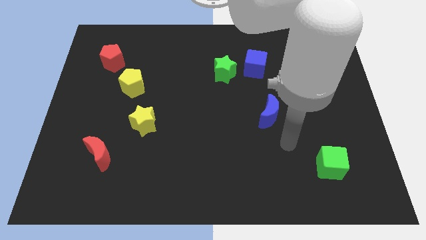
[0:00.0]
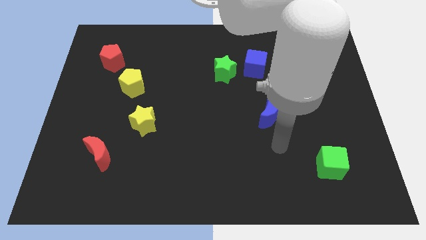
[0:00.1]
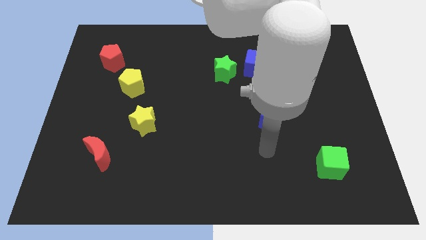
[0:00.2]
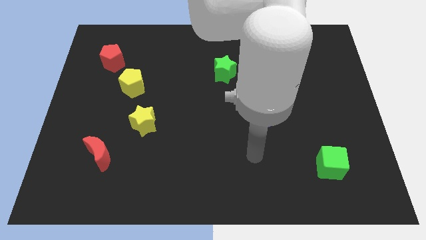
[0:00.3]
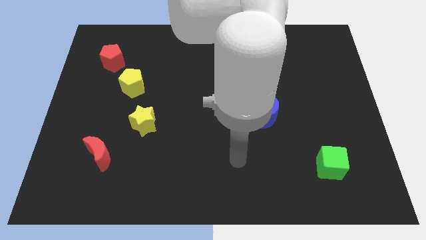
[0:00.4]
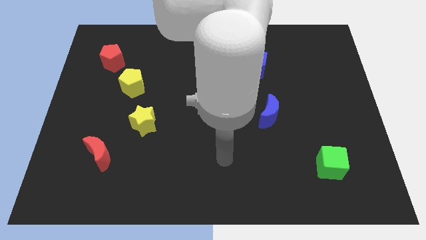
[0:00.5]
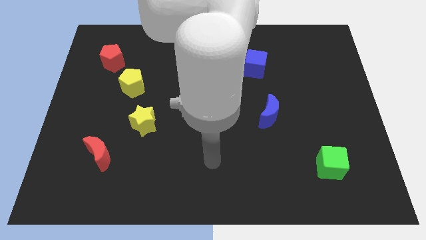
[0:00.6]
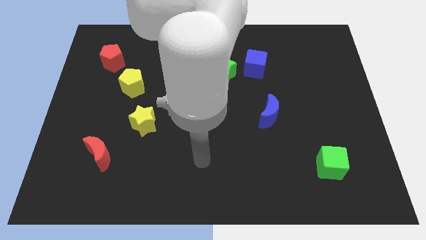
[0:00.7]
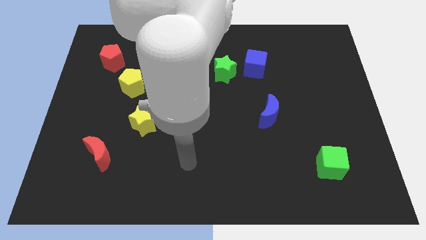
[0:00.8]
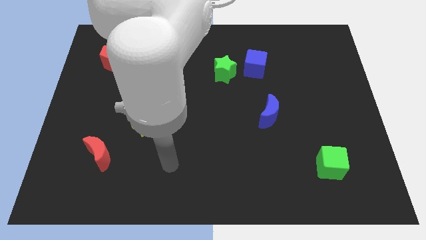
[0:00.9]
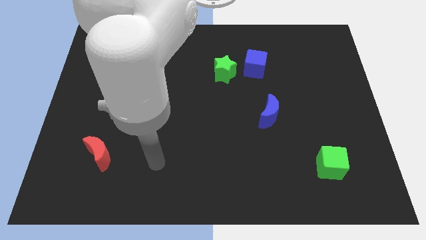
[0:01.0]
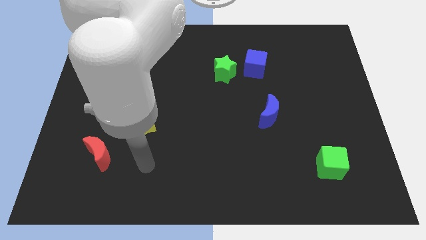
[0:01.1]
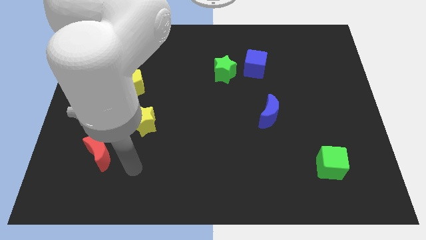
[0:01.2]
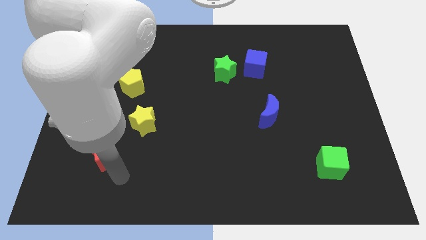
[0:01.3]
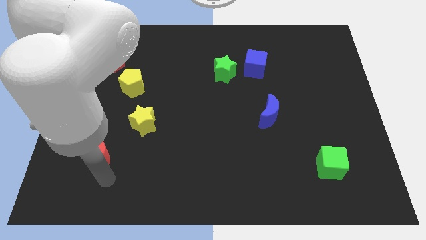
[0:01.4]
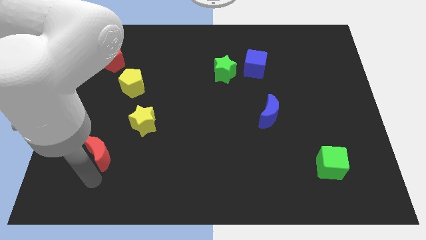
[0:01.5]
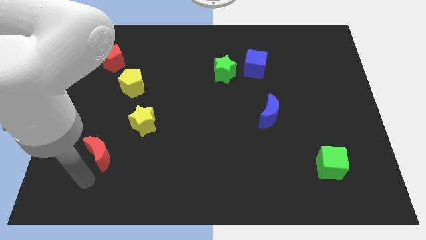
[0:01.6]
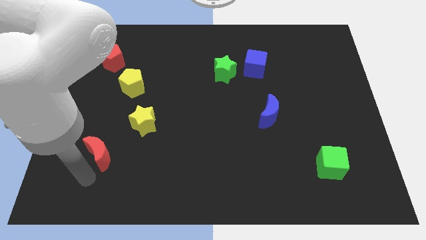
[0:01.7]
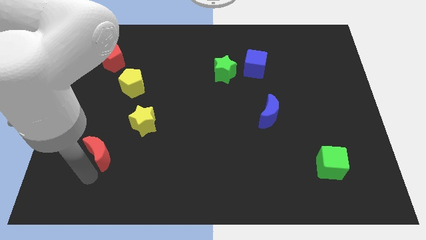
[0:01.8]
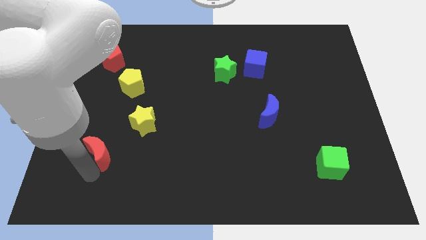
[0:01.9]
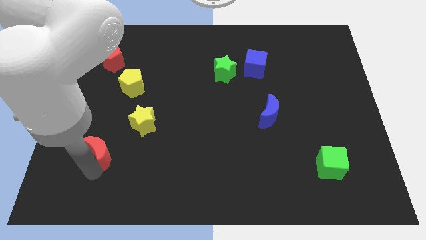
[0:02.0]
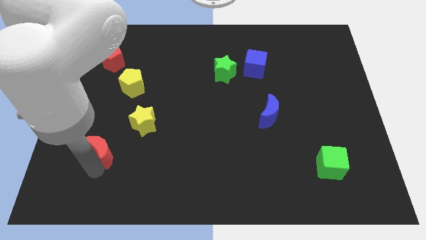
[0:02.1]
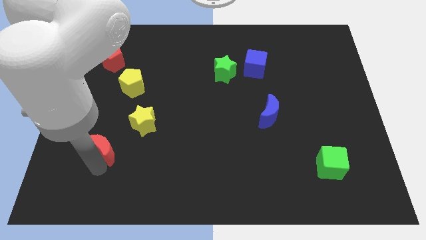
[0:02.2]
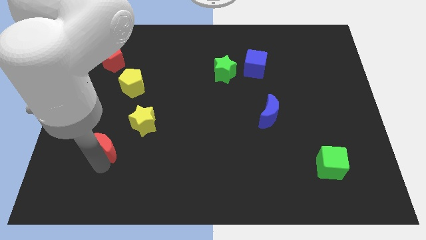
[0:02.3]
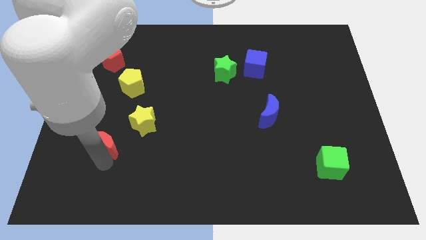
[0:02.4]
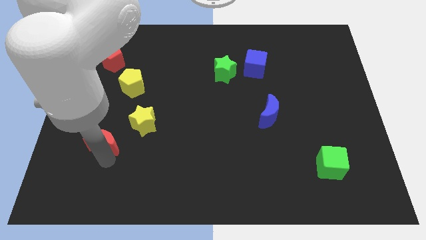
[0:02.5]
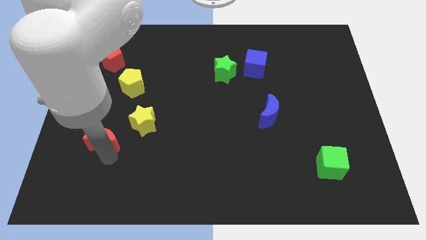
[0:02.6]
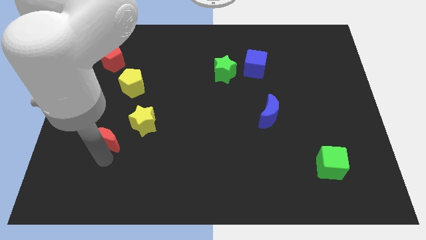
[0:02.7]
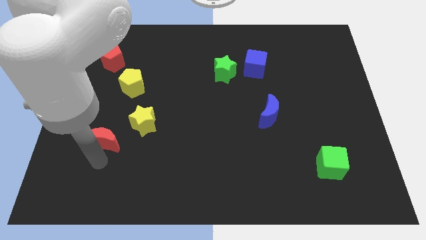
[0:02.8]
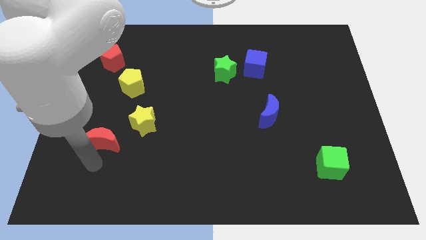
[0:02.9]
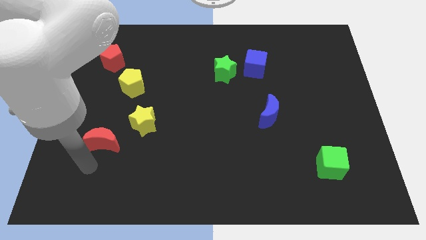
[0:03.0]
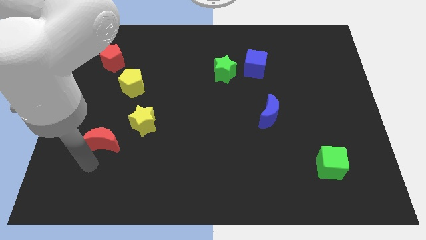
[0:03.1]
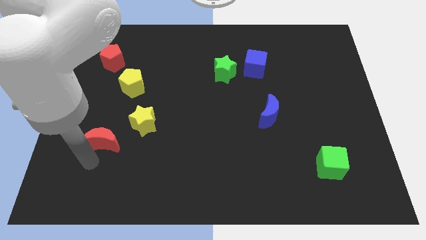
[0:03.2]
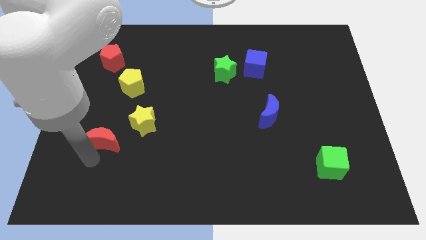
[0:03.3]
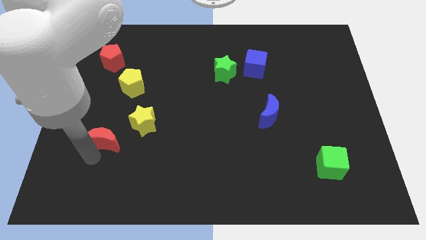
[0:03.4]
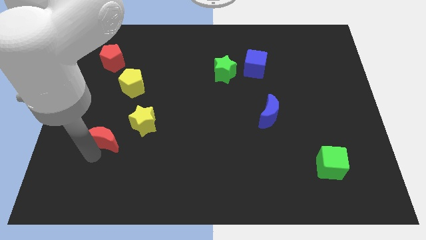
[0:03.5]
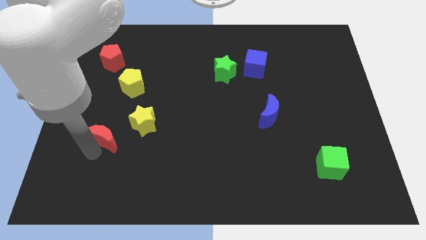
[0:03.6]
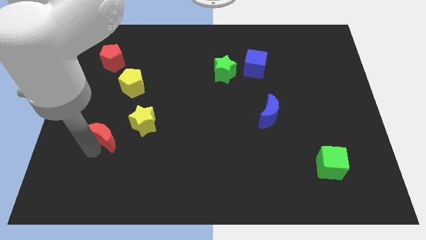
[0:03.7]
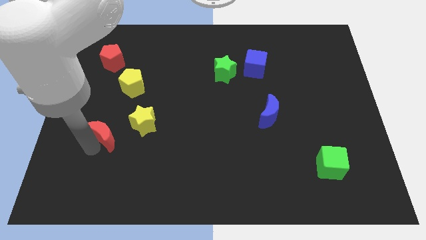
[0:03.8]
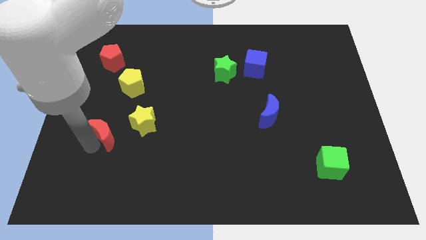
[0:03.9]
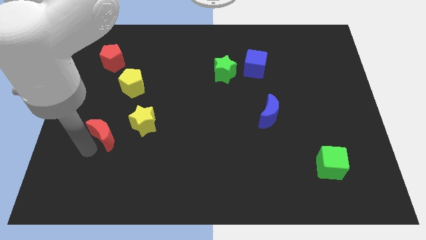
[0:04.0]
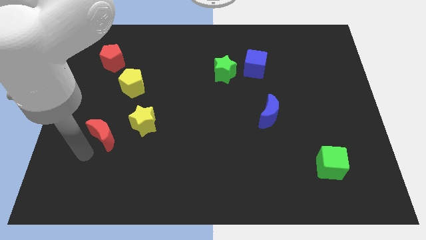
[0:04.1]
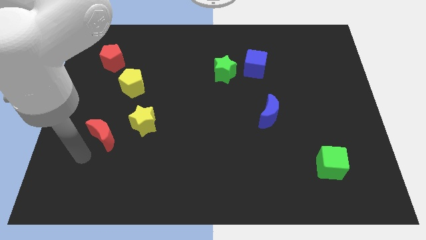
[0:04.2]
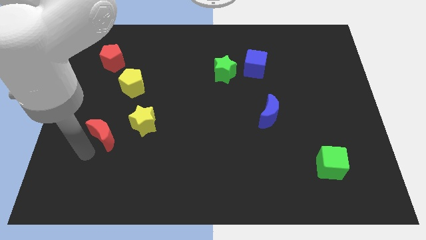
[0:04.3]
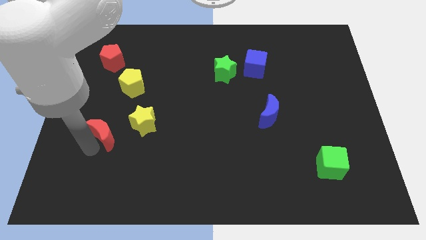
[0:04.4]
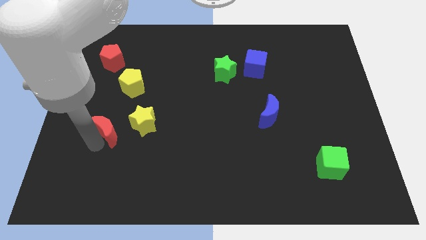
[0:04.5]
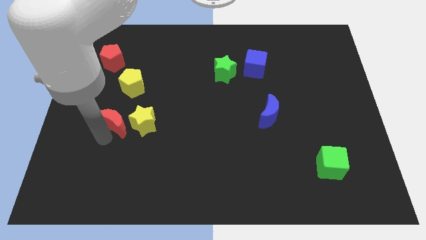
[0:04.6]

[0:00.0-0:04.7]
put the red moon to the top left of the yellow star

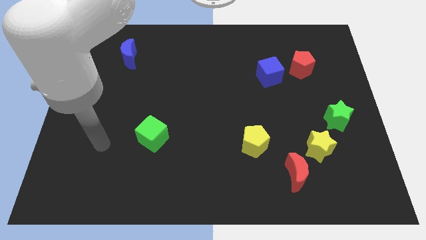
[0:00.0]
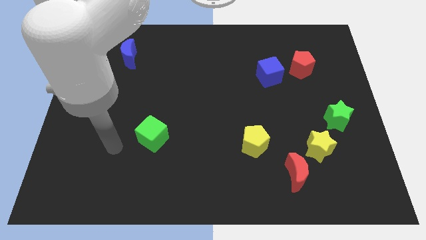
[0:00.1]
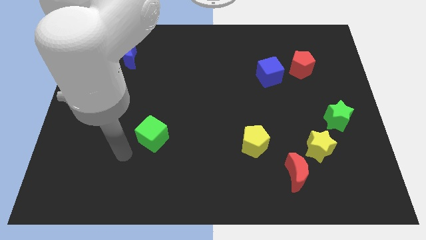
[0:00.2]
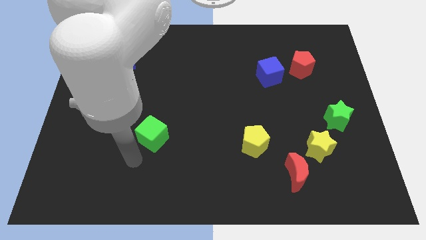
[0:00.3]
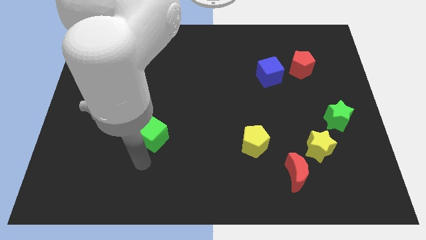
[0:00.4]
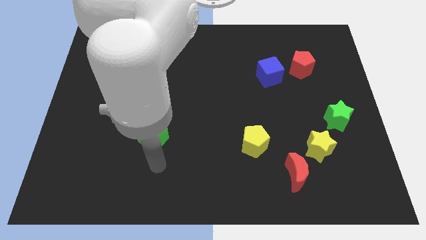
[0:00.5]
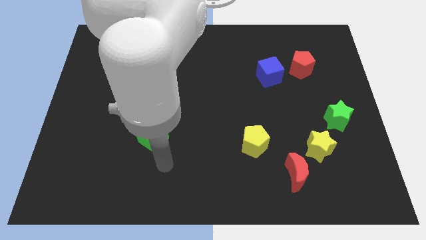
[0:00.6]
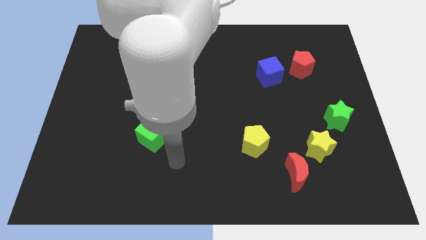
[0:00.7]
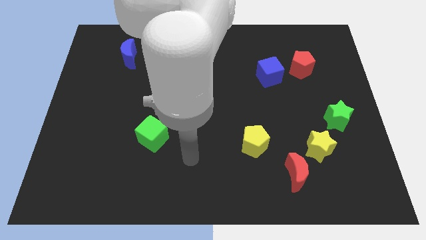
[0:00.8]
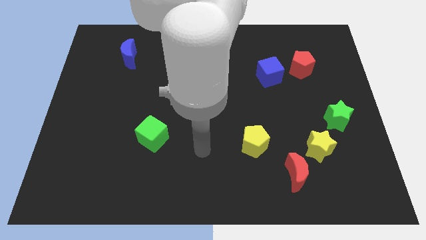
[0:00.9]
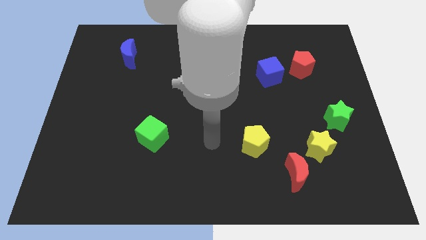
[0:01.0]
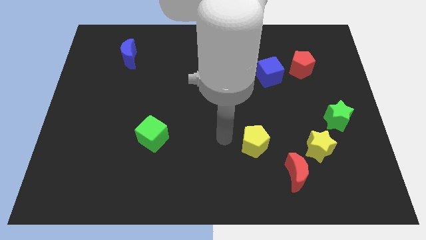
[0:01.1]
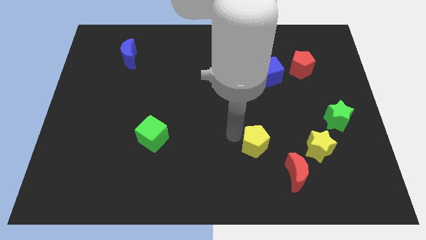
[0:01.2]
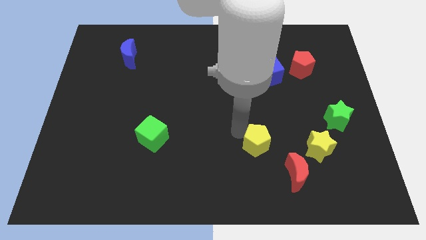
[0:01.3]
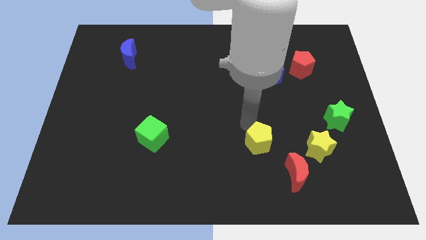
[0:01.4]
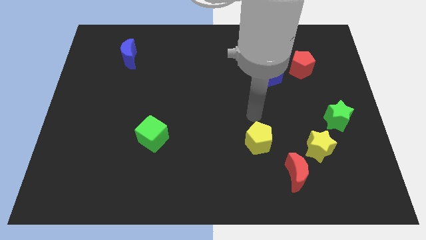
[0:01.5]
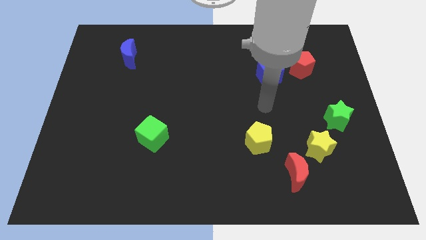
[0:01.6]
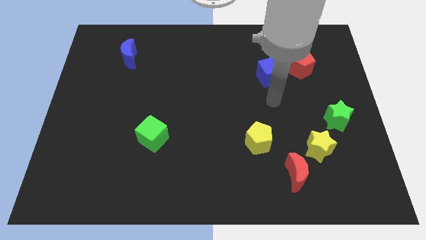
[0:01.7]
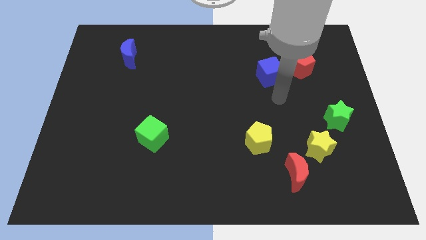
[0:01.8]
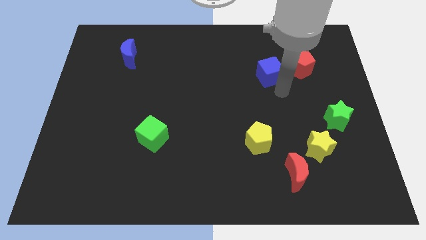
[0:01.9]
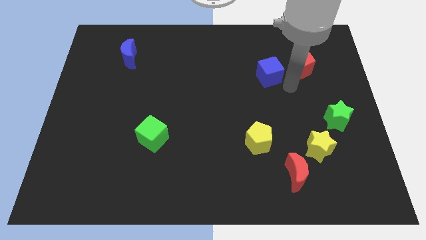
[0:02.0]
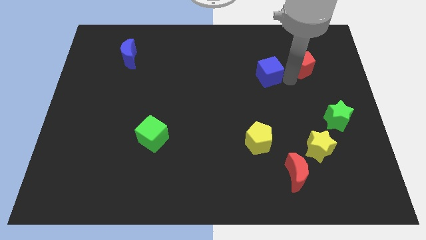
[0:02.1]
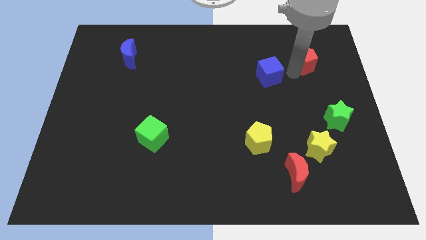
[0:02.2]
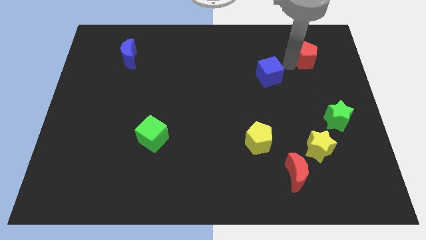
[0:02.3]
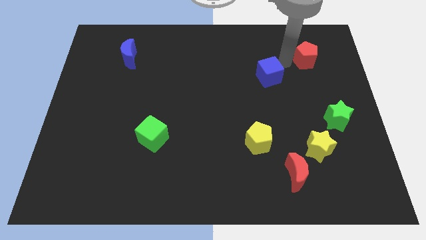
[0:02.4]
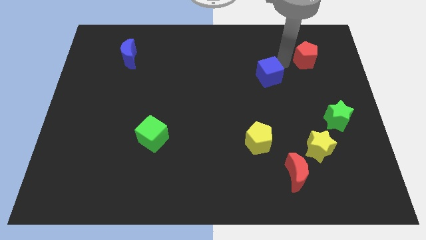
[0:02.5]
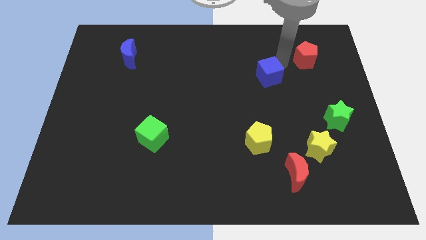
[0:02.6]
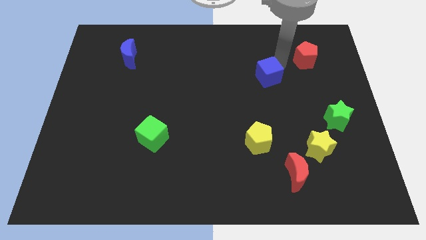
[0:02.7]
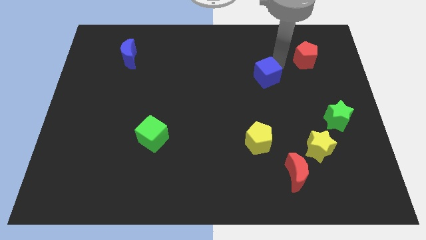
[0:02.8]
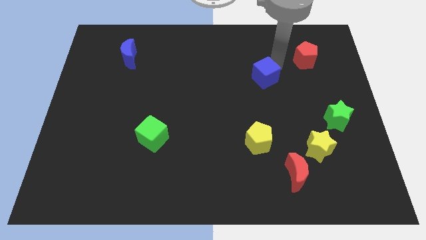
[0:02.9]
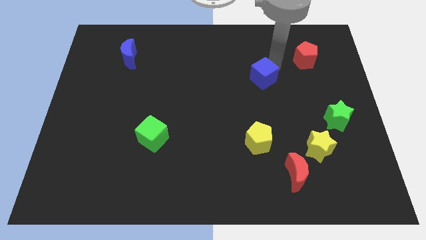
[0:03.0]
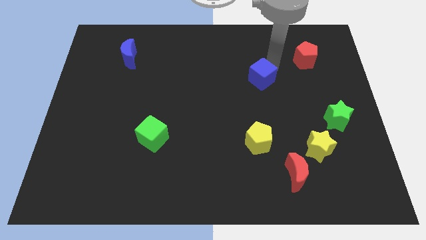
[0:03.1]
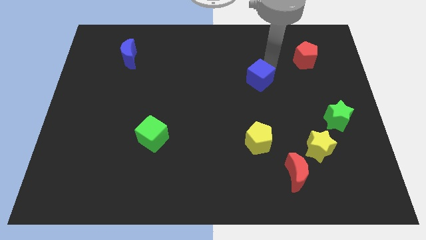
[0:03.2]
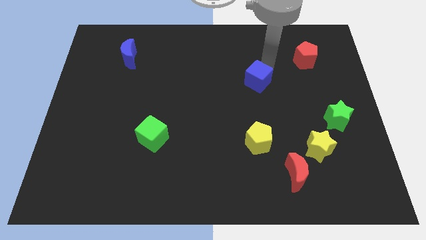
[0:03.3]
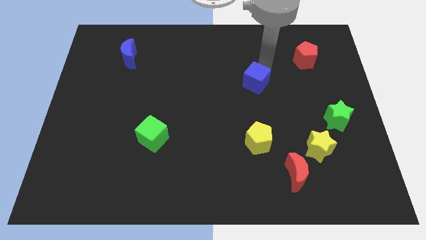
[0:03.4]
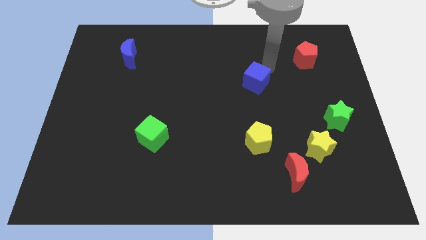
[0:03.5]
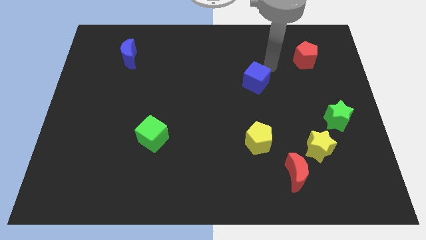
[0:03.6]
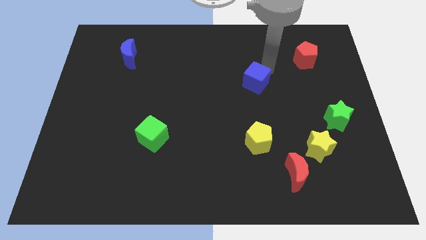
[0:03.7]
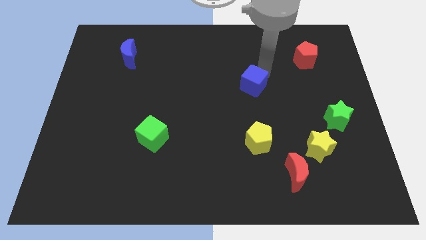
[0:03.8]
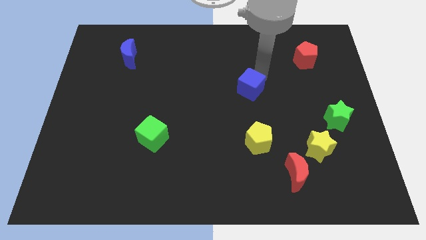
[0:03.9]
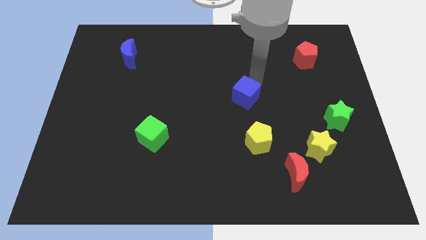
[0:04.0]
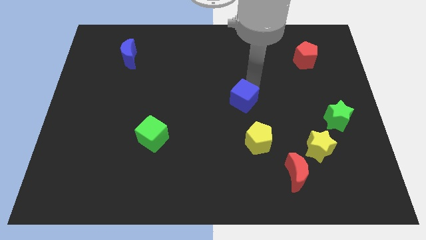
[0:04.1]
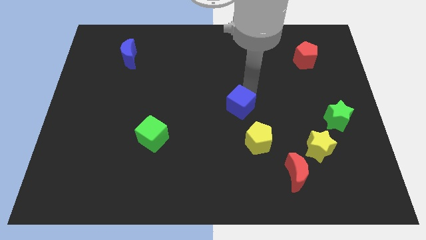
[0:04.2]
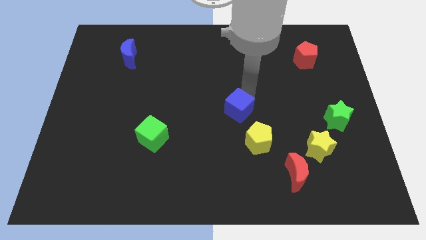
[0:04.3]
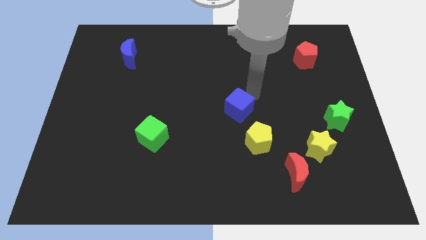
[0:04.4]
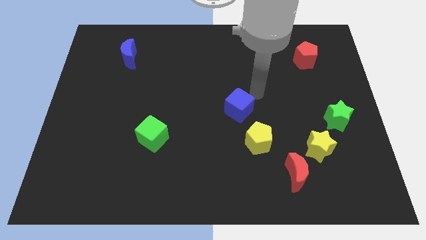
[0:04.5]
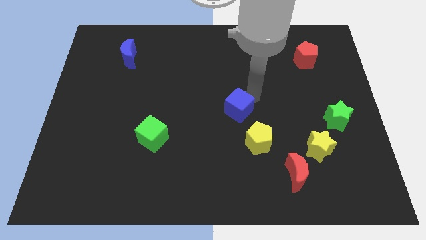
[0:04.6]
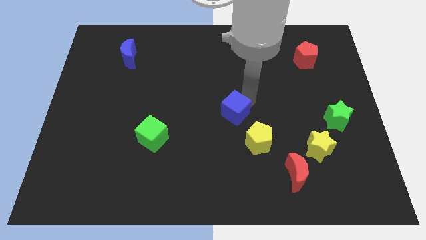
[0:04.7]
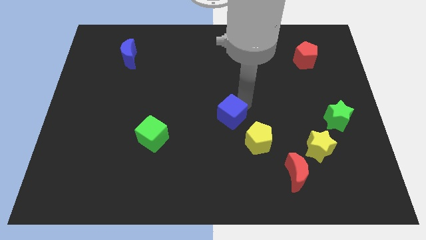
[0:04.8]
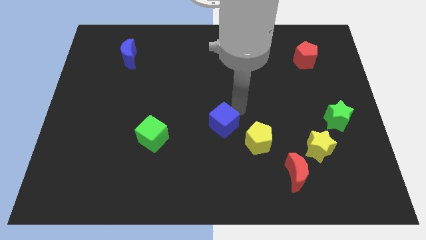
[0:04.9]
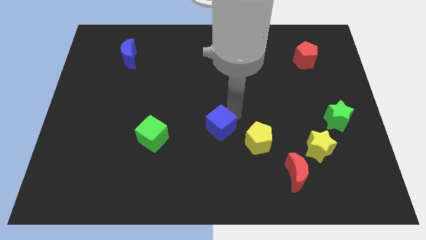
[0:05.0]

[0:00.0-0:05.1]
push the blue cube to the right side of the green cube
